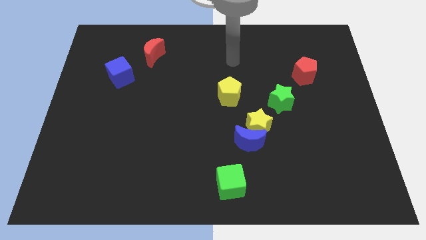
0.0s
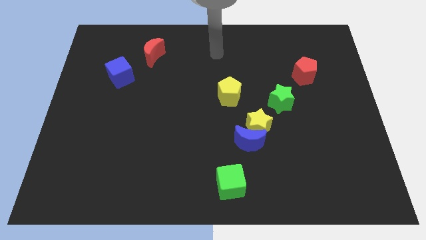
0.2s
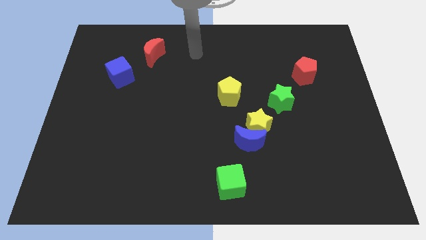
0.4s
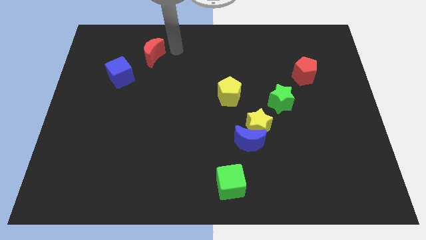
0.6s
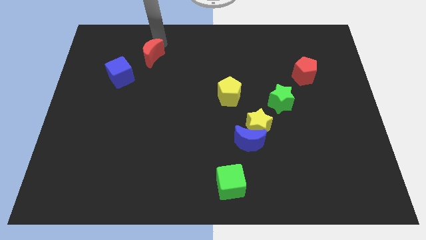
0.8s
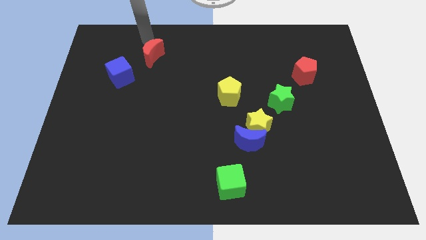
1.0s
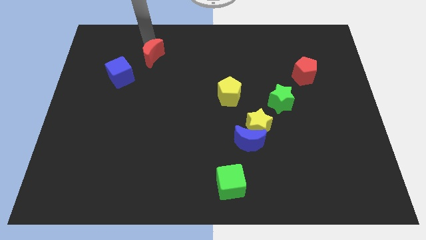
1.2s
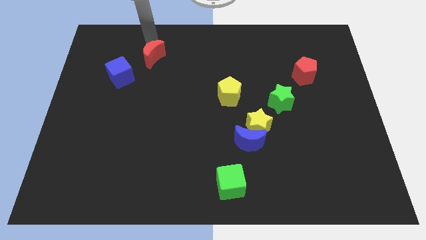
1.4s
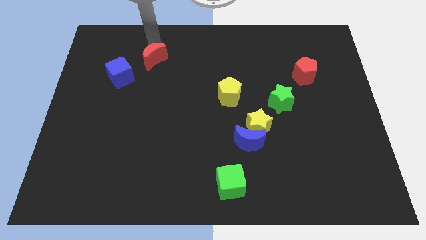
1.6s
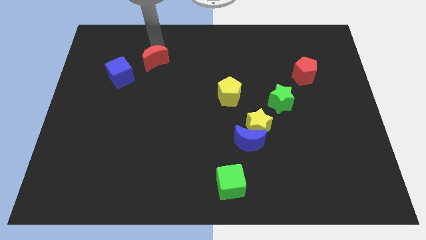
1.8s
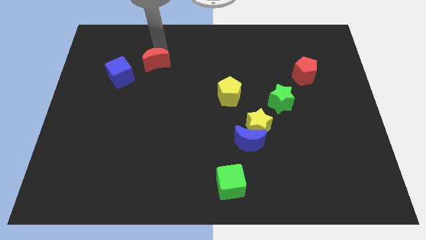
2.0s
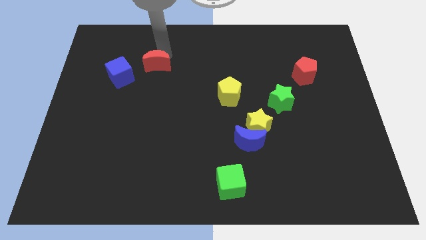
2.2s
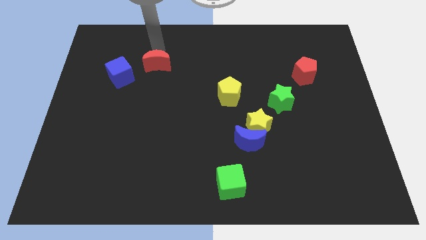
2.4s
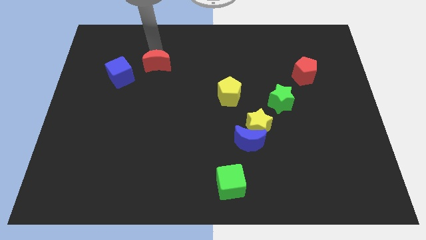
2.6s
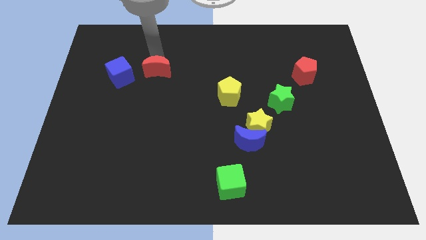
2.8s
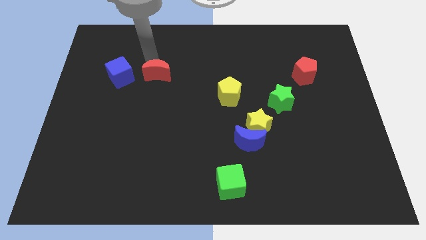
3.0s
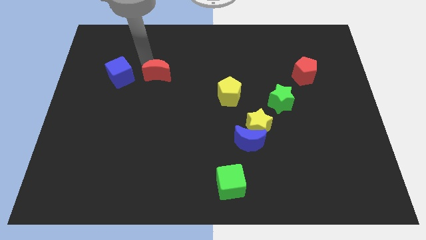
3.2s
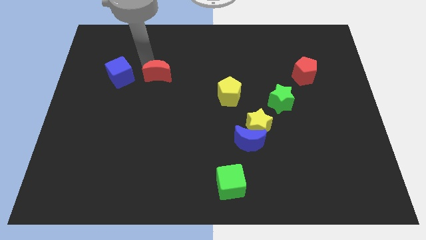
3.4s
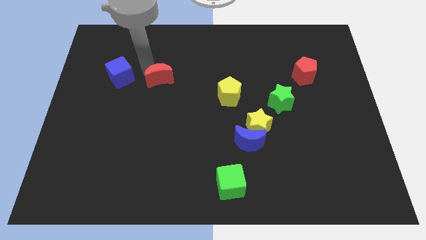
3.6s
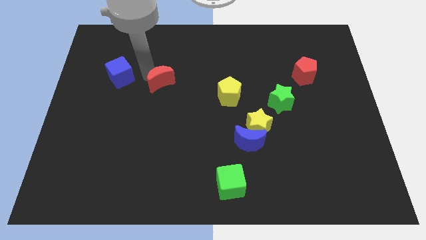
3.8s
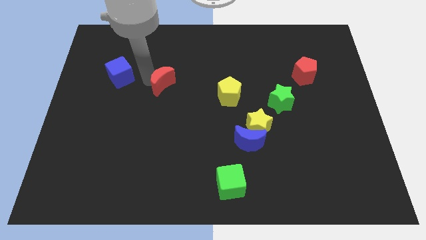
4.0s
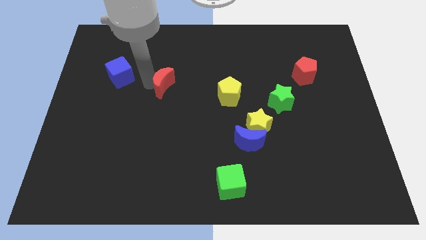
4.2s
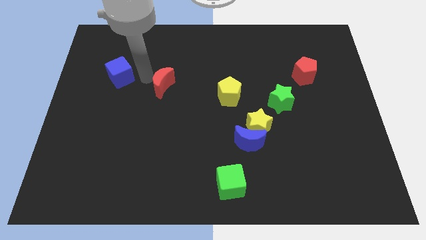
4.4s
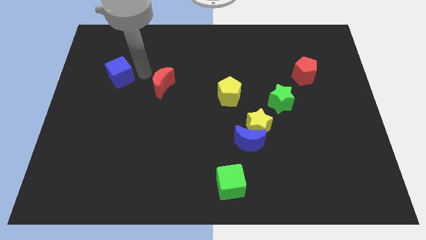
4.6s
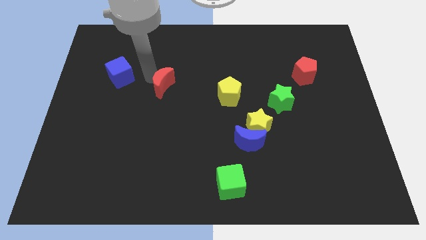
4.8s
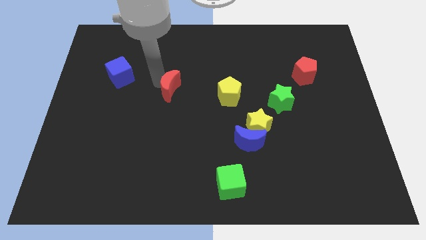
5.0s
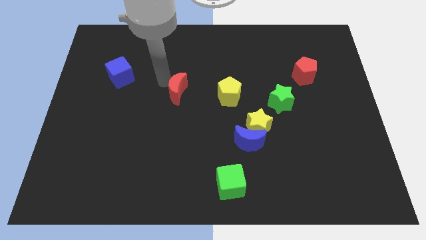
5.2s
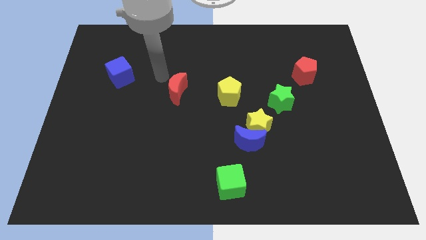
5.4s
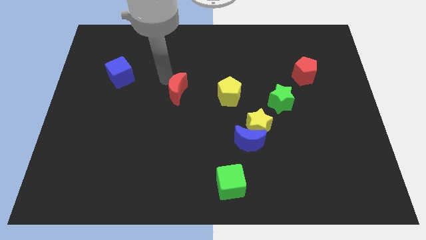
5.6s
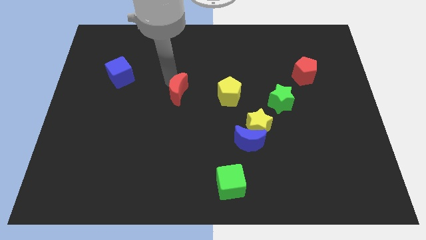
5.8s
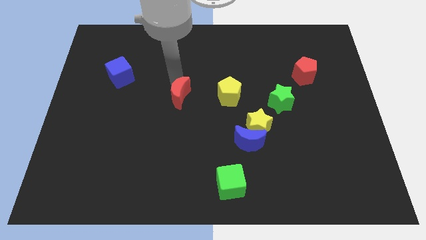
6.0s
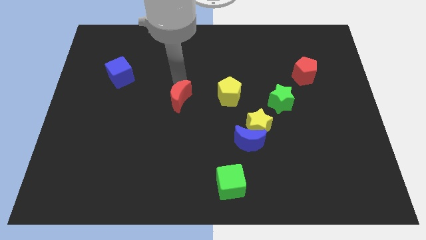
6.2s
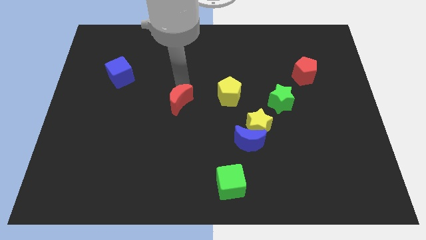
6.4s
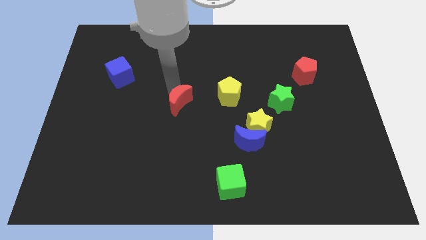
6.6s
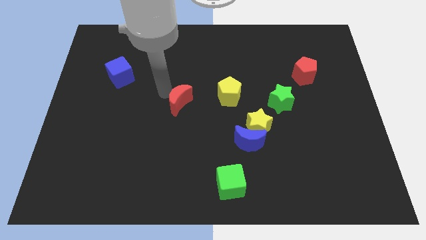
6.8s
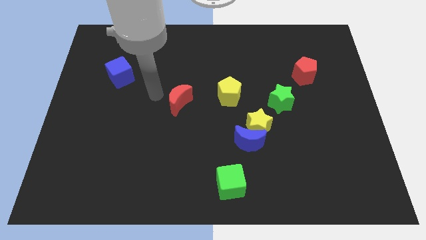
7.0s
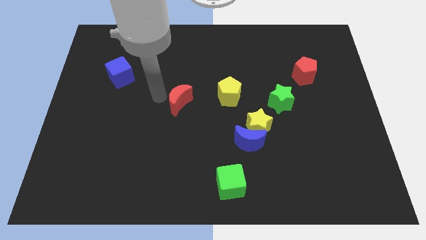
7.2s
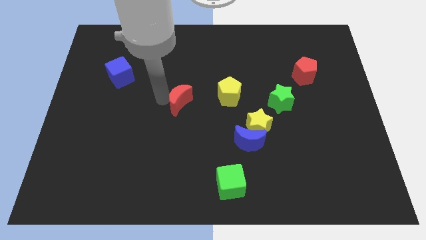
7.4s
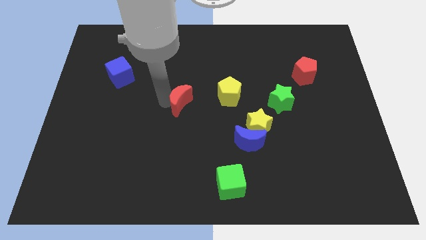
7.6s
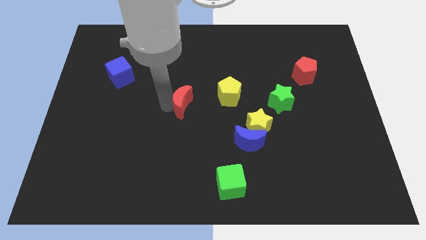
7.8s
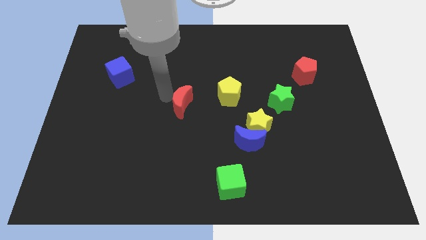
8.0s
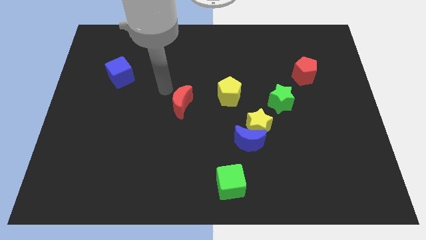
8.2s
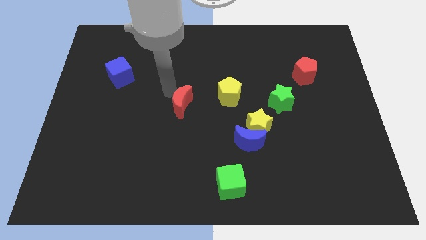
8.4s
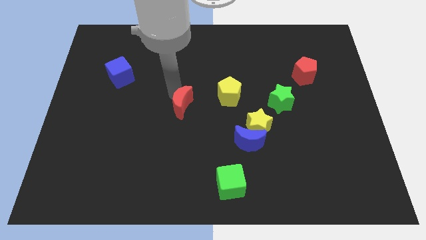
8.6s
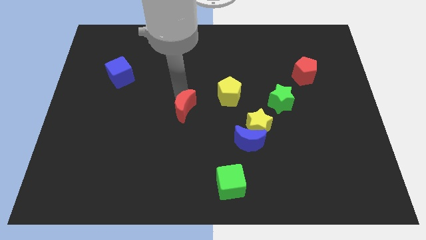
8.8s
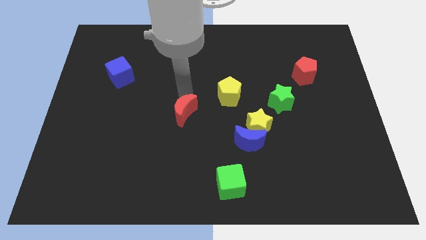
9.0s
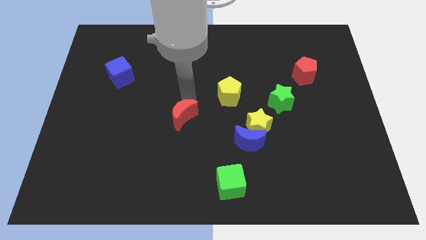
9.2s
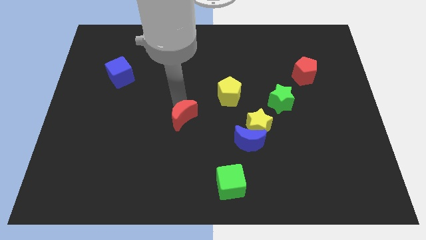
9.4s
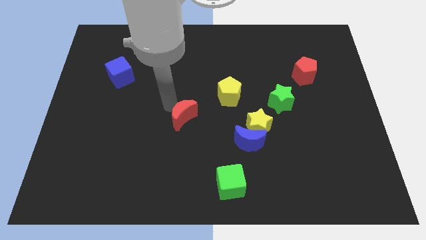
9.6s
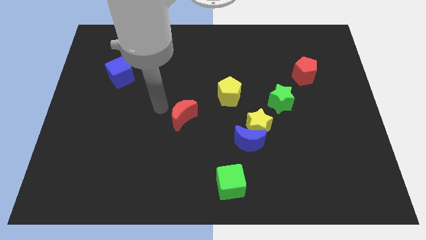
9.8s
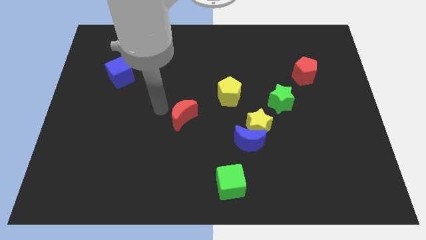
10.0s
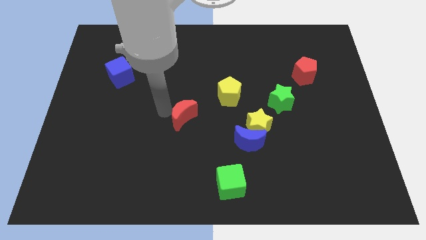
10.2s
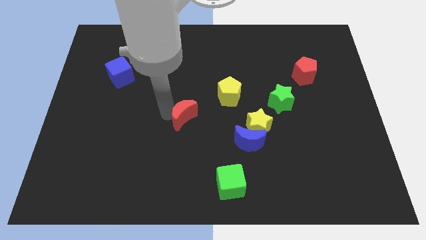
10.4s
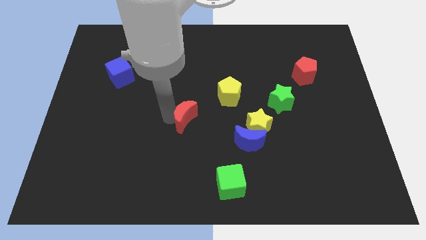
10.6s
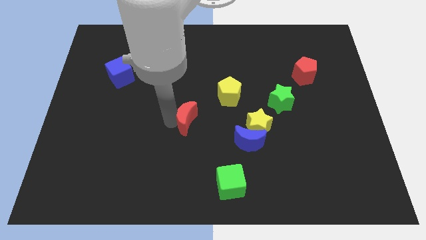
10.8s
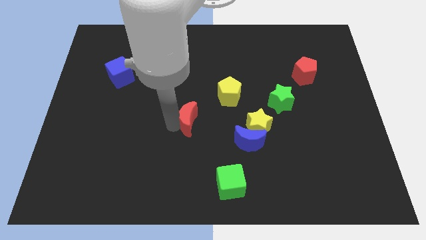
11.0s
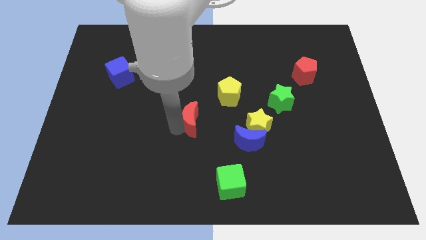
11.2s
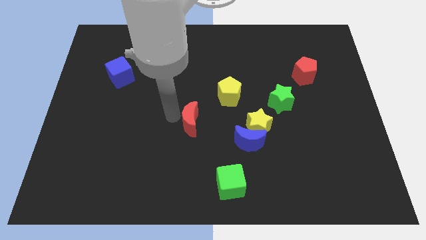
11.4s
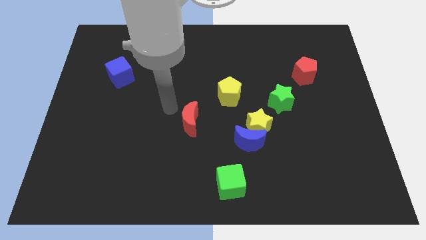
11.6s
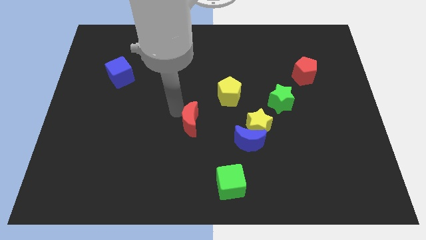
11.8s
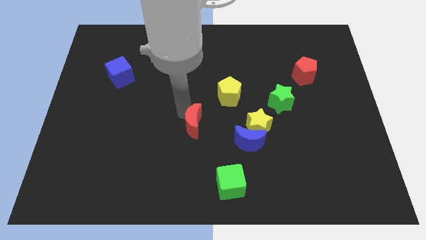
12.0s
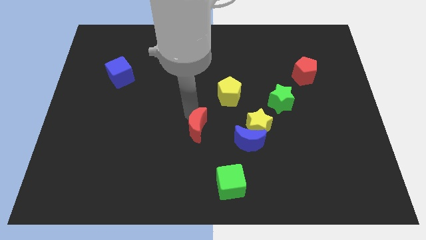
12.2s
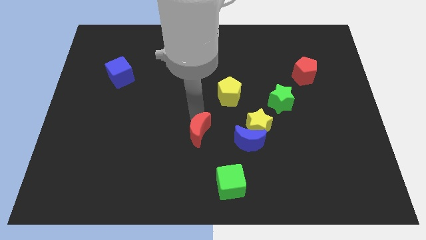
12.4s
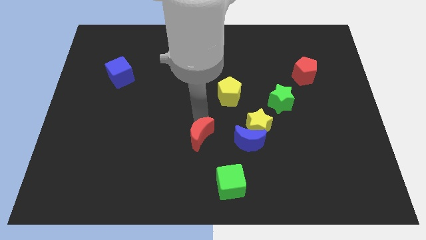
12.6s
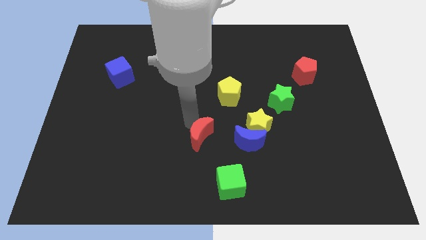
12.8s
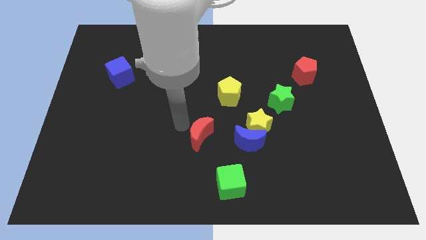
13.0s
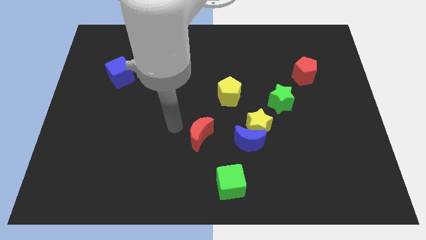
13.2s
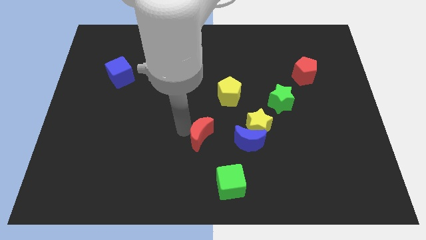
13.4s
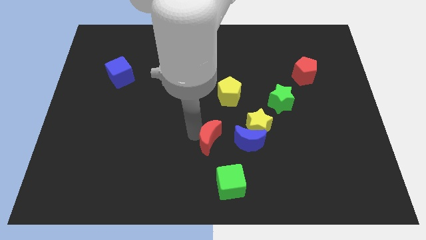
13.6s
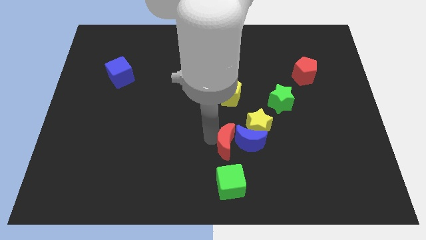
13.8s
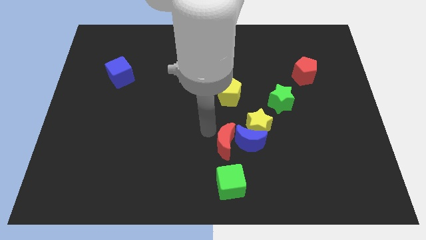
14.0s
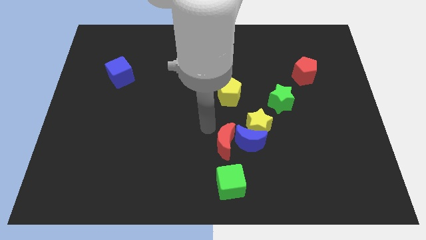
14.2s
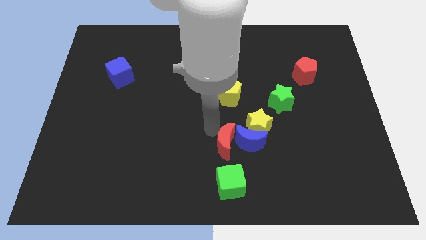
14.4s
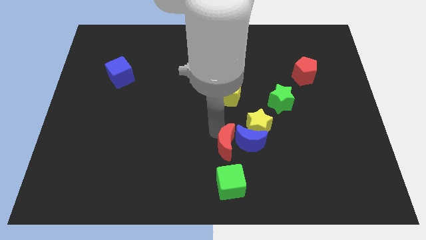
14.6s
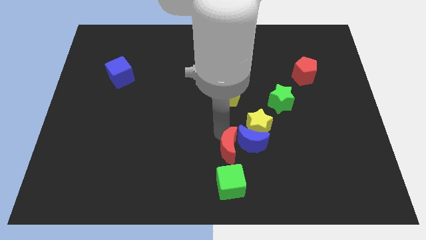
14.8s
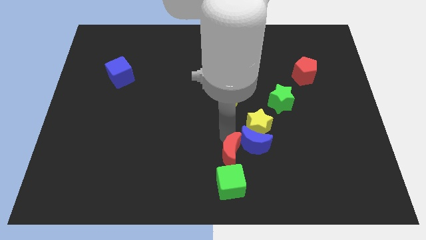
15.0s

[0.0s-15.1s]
push the red moon to the top right side of the green cube
